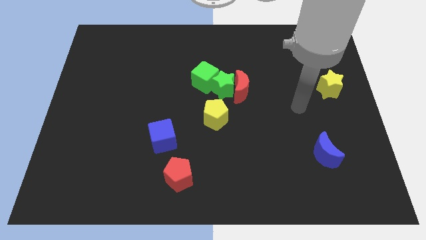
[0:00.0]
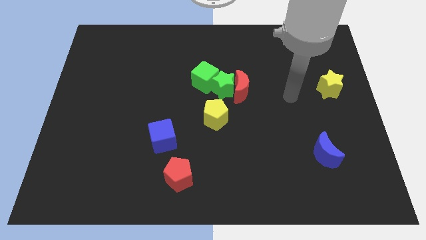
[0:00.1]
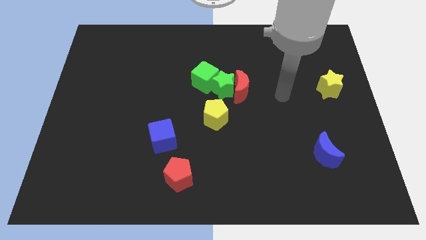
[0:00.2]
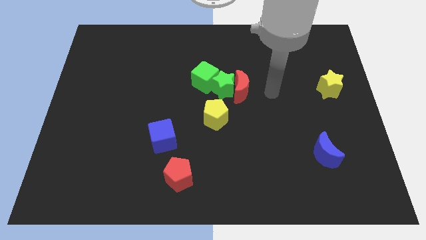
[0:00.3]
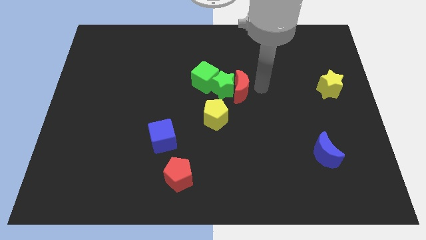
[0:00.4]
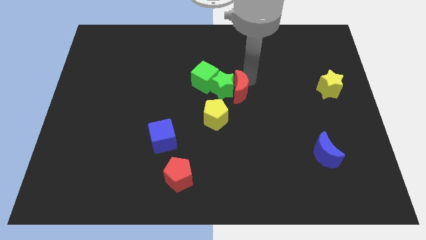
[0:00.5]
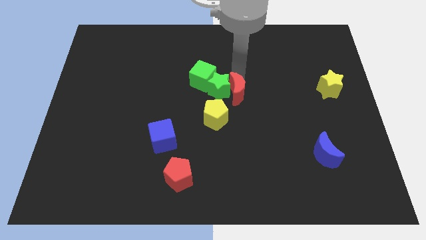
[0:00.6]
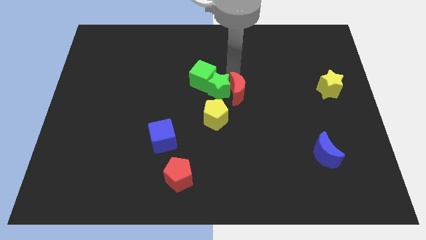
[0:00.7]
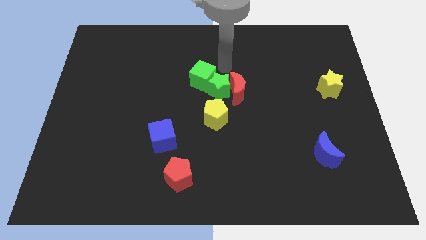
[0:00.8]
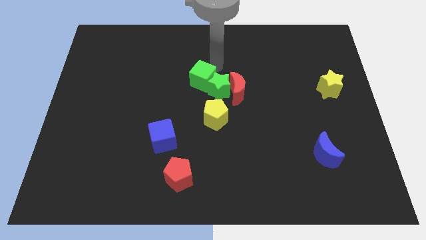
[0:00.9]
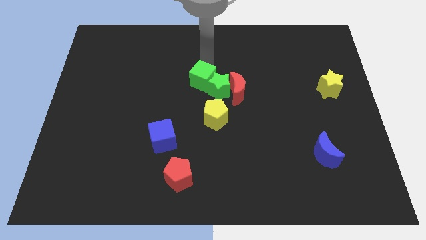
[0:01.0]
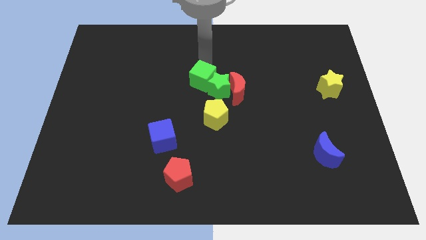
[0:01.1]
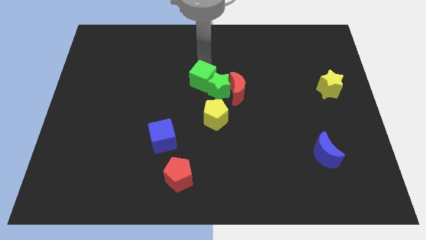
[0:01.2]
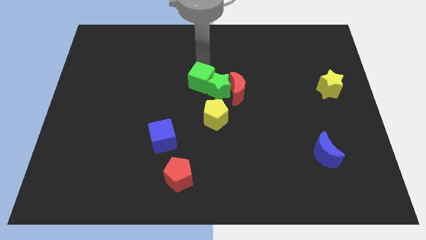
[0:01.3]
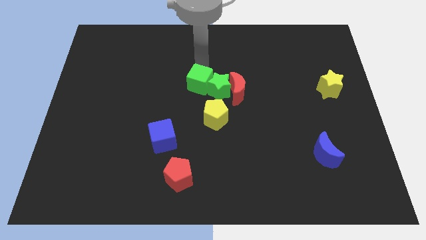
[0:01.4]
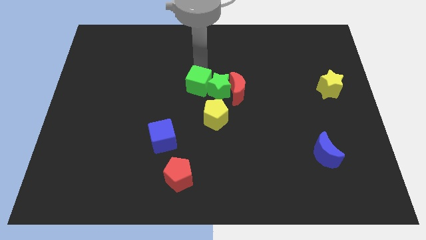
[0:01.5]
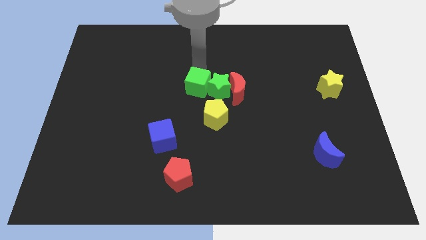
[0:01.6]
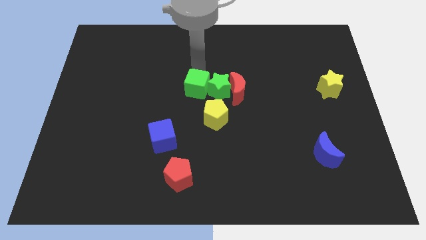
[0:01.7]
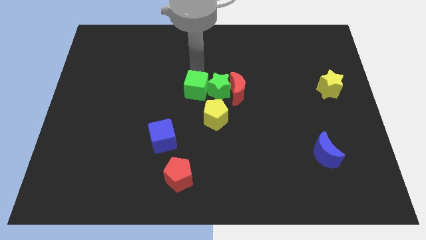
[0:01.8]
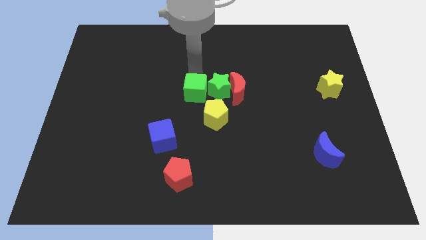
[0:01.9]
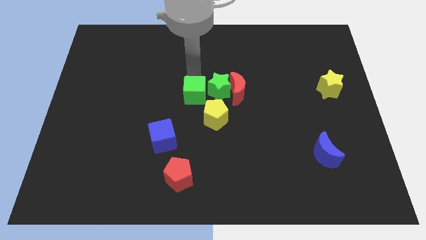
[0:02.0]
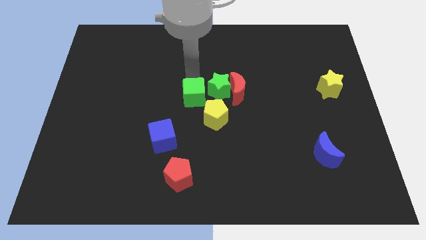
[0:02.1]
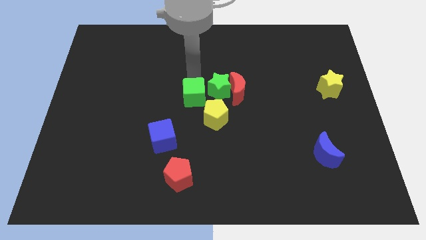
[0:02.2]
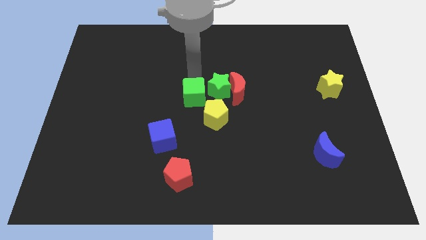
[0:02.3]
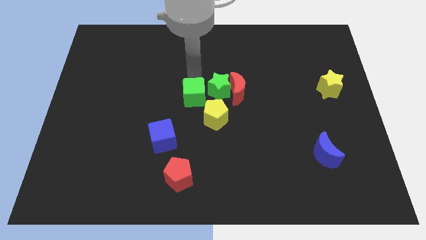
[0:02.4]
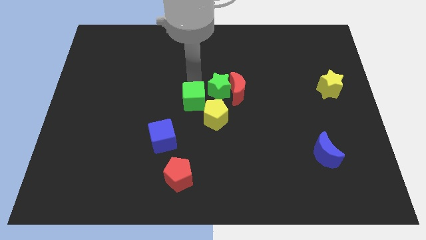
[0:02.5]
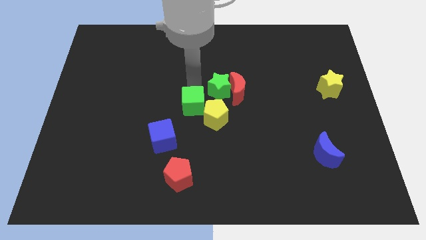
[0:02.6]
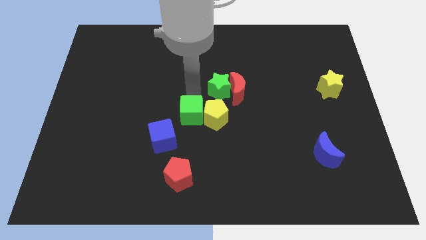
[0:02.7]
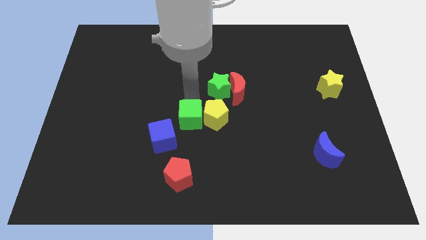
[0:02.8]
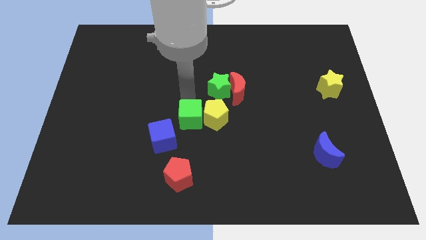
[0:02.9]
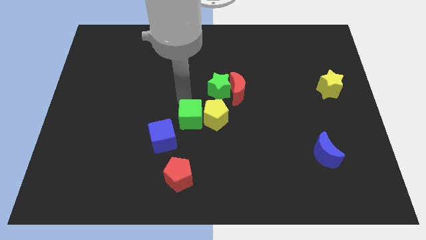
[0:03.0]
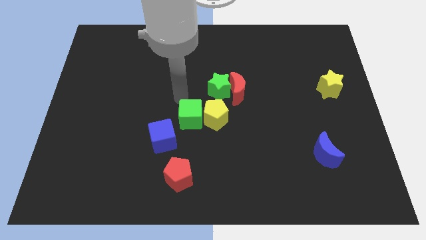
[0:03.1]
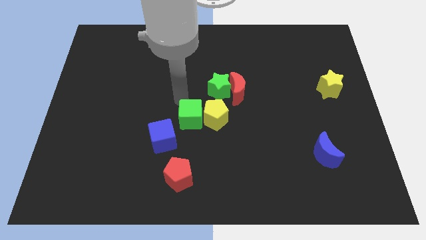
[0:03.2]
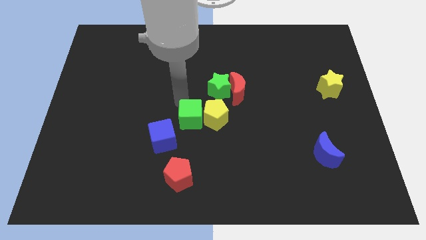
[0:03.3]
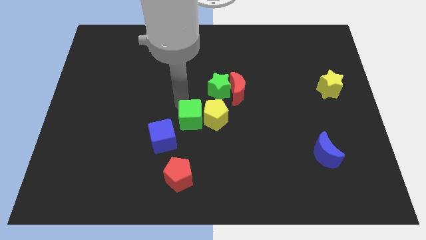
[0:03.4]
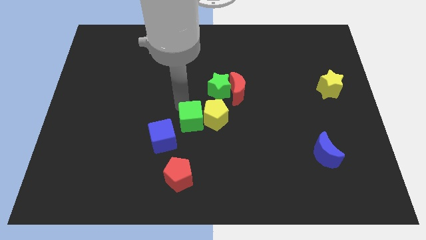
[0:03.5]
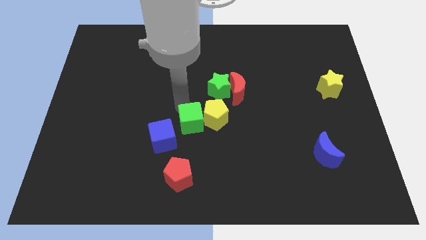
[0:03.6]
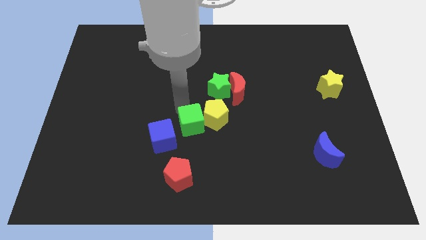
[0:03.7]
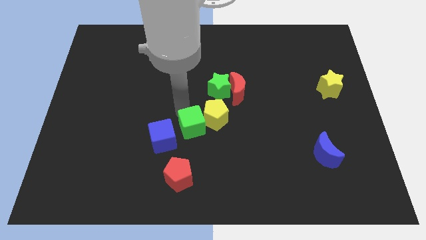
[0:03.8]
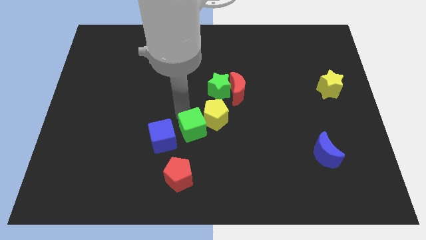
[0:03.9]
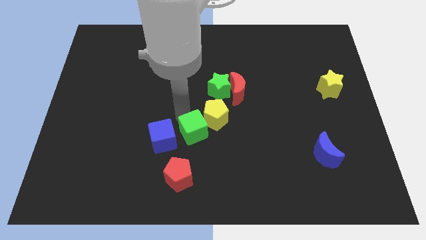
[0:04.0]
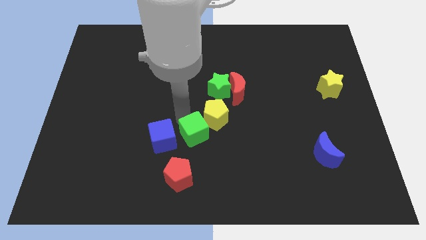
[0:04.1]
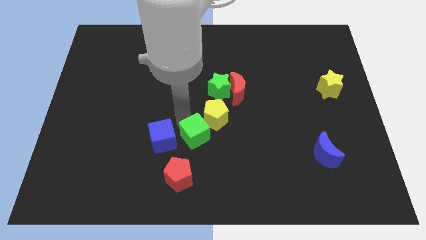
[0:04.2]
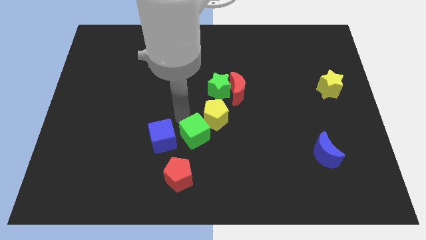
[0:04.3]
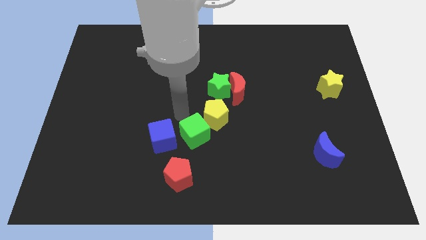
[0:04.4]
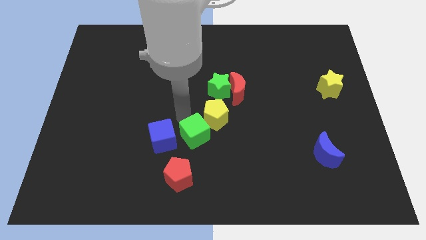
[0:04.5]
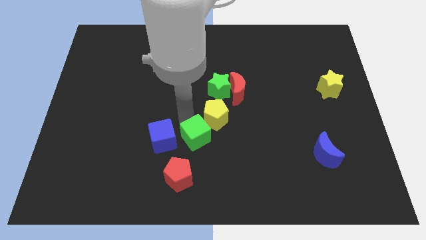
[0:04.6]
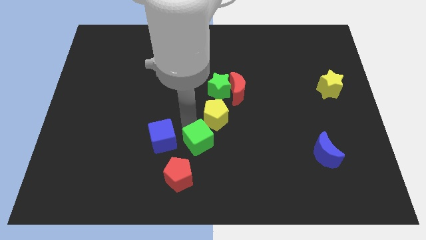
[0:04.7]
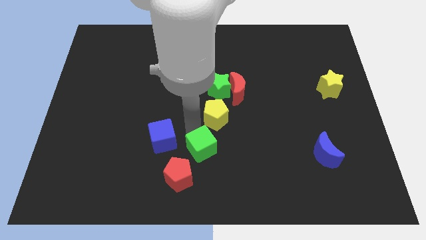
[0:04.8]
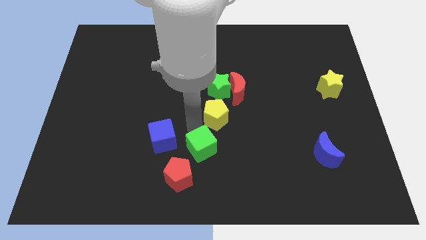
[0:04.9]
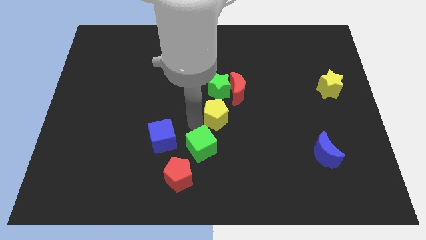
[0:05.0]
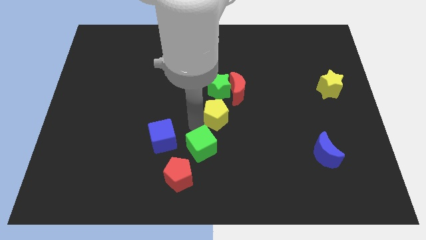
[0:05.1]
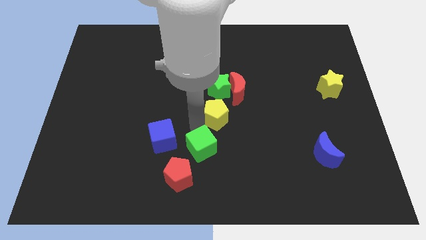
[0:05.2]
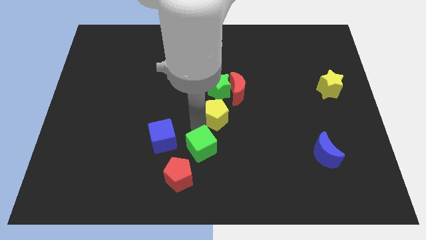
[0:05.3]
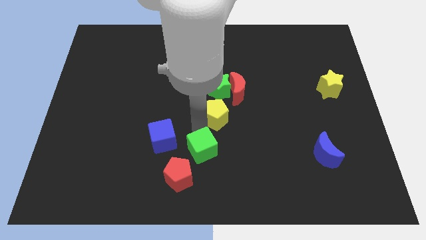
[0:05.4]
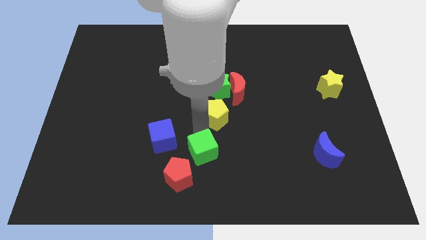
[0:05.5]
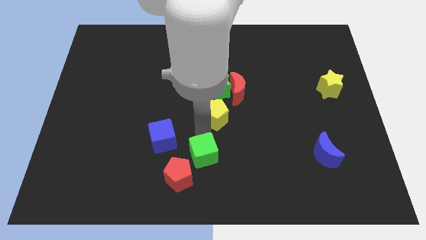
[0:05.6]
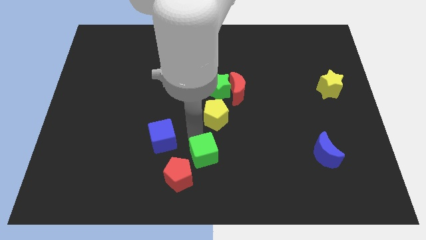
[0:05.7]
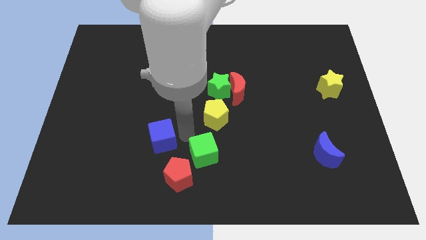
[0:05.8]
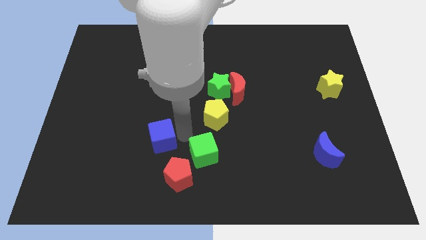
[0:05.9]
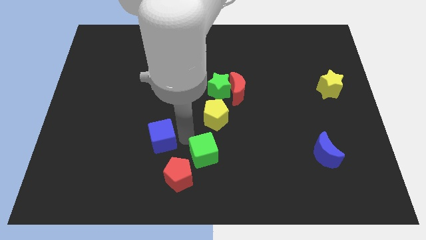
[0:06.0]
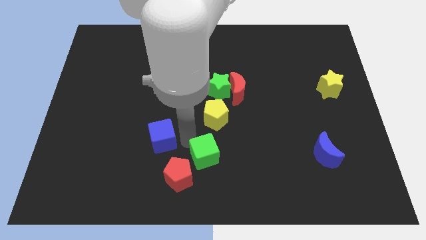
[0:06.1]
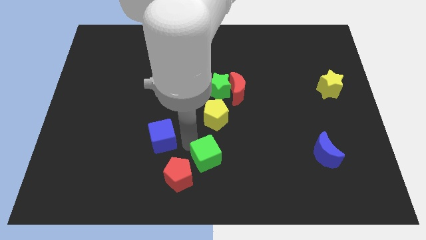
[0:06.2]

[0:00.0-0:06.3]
move the green cube right of the red pentagon

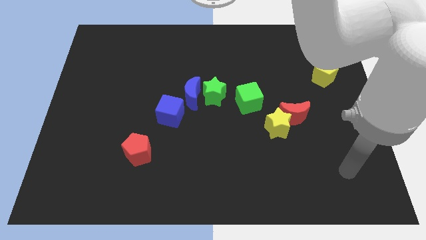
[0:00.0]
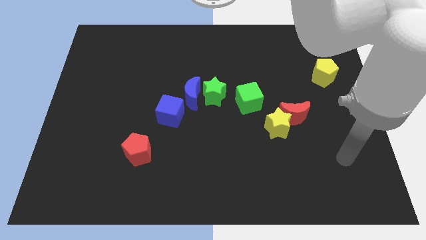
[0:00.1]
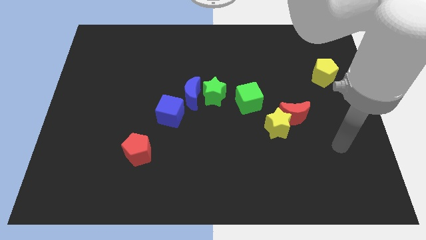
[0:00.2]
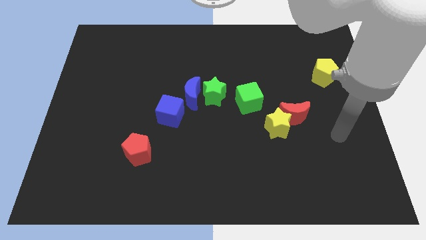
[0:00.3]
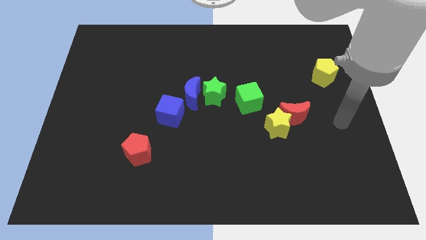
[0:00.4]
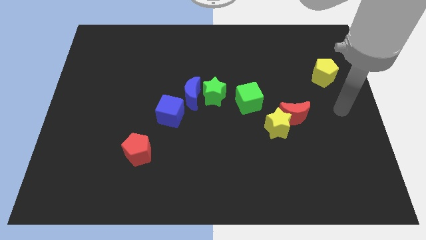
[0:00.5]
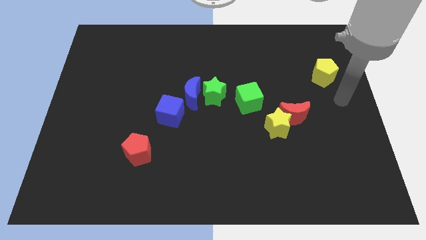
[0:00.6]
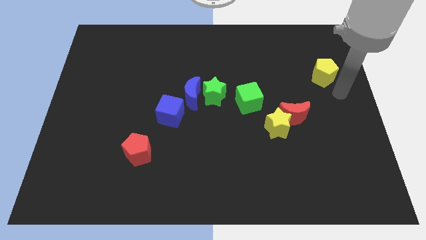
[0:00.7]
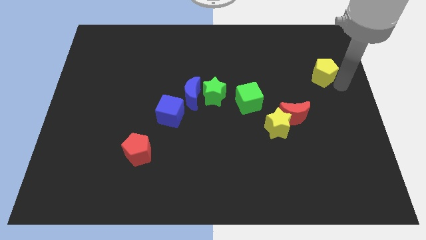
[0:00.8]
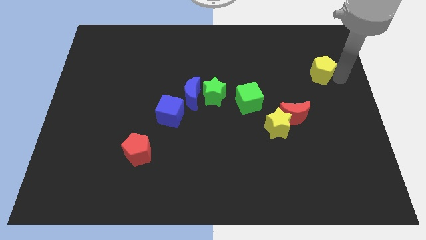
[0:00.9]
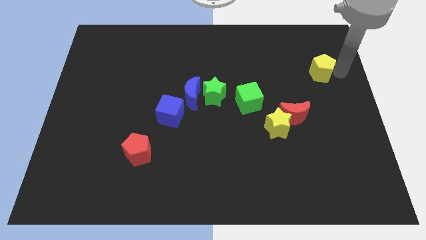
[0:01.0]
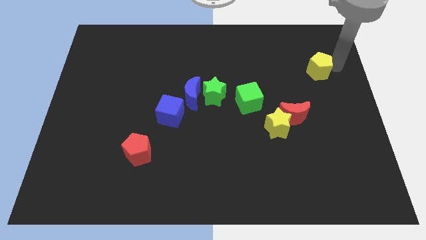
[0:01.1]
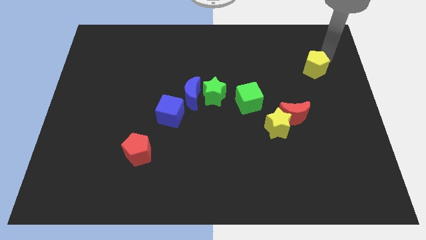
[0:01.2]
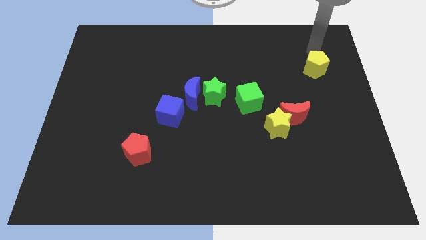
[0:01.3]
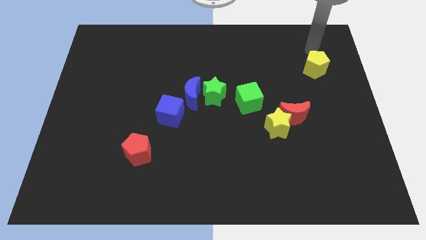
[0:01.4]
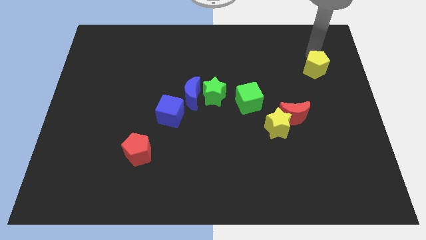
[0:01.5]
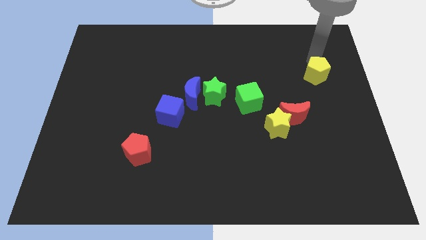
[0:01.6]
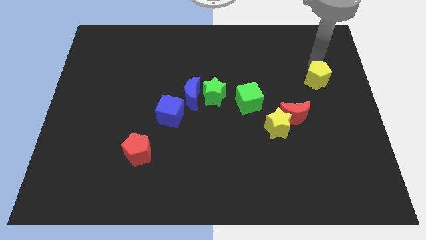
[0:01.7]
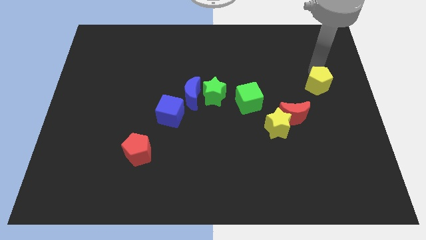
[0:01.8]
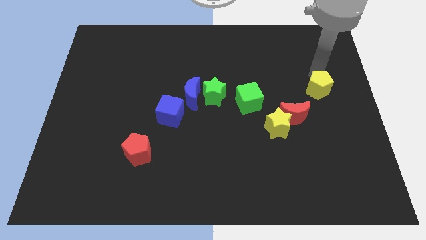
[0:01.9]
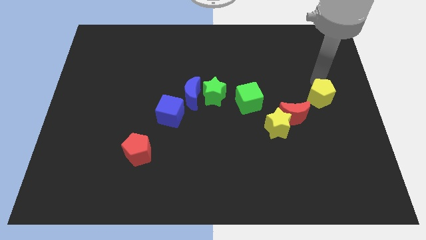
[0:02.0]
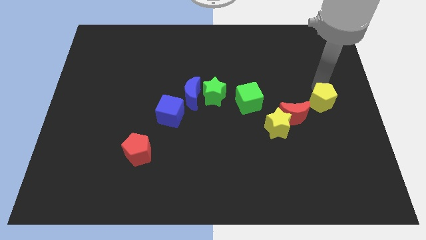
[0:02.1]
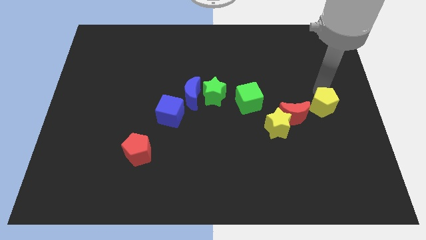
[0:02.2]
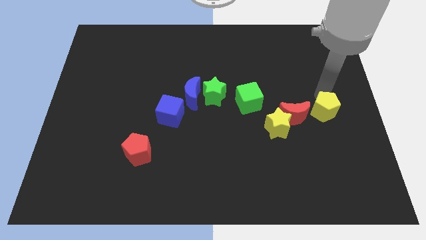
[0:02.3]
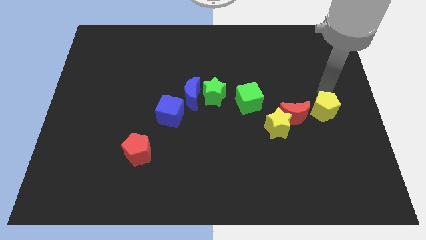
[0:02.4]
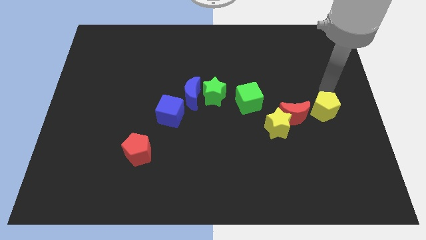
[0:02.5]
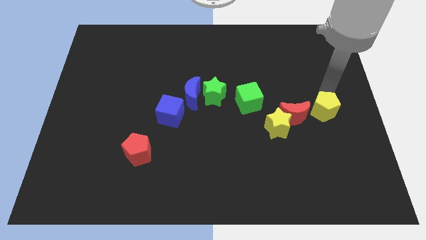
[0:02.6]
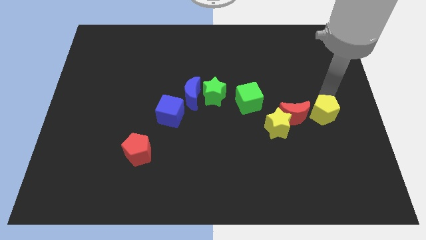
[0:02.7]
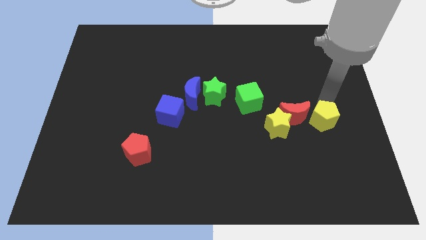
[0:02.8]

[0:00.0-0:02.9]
put the yellow pentagon to the bottom right side of the red moon
